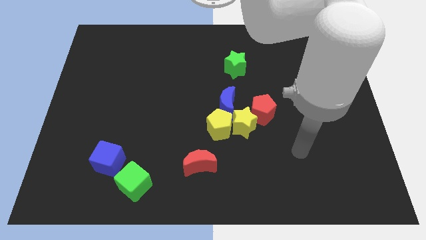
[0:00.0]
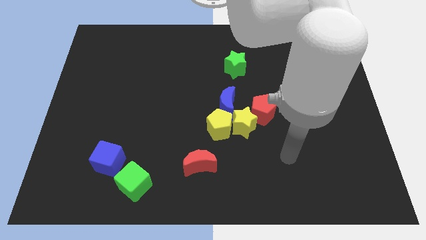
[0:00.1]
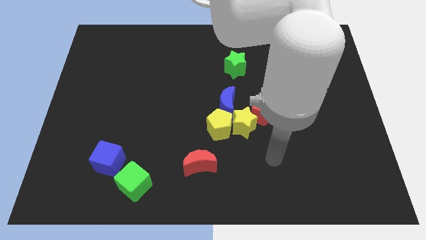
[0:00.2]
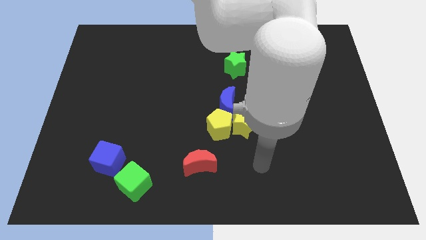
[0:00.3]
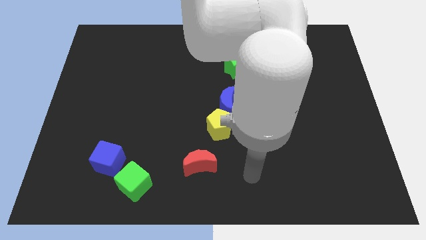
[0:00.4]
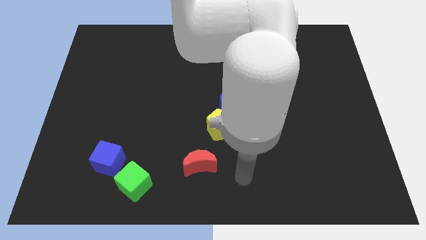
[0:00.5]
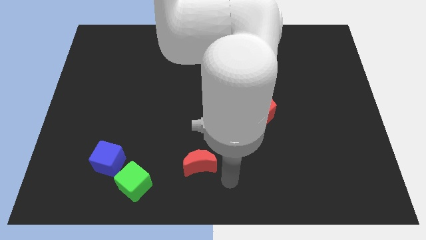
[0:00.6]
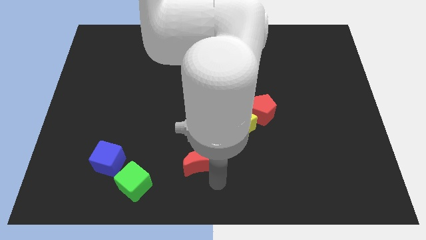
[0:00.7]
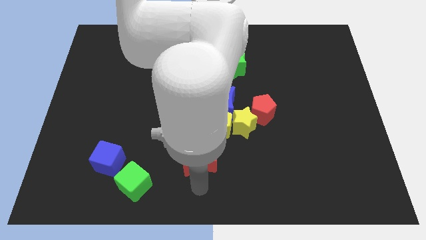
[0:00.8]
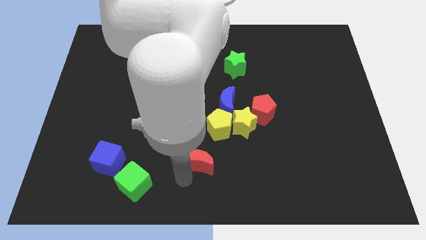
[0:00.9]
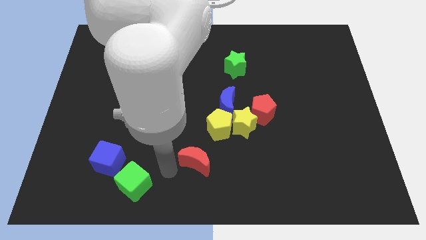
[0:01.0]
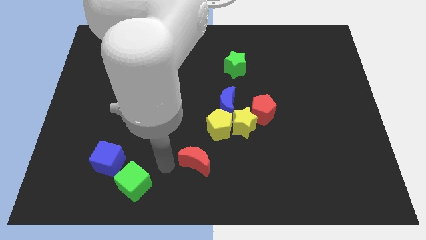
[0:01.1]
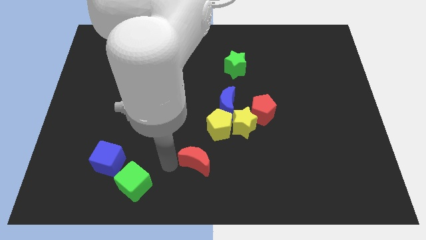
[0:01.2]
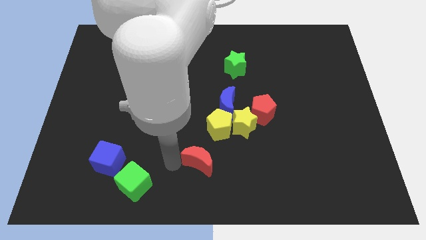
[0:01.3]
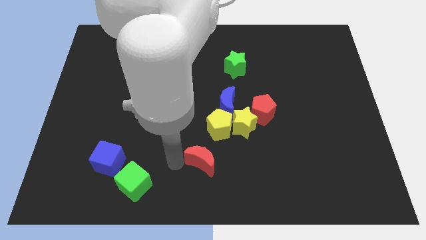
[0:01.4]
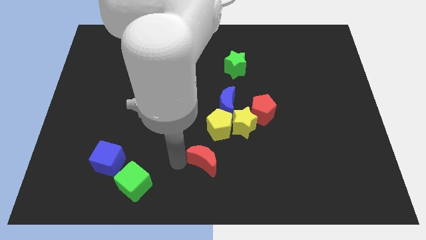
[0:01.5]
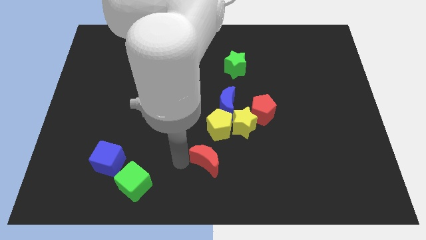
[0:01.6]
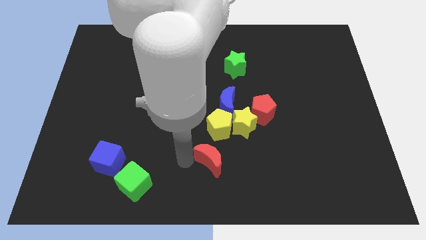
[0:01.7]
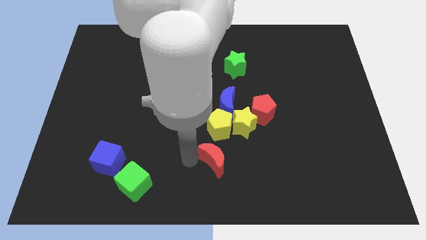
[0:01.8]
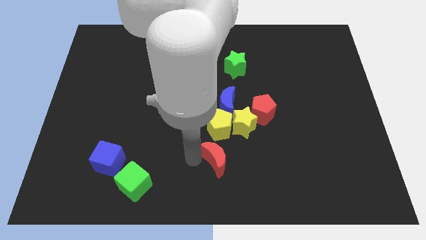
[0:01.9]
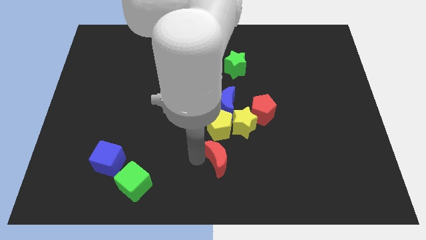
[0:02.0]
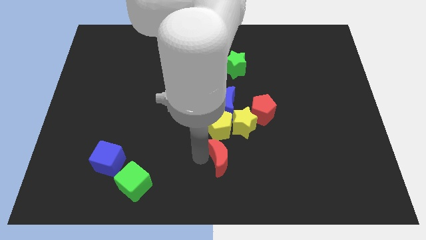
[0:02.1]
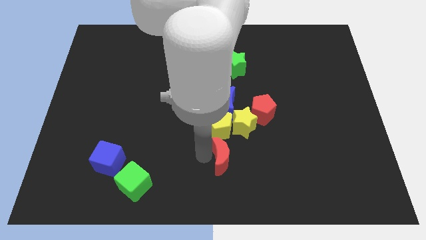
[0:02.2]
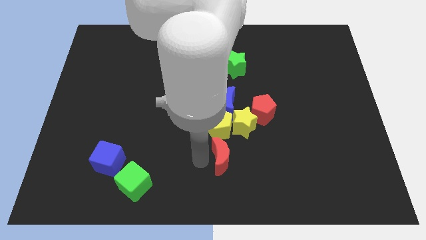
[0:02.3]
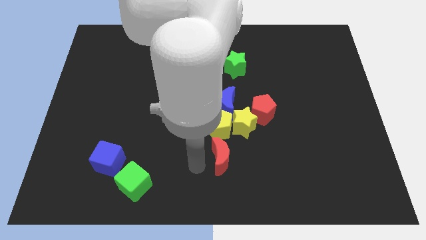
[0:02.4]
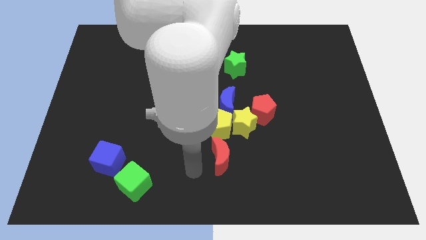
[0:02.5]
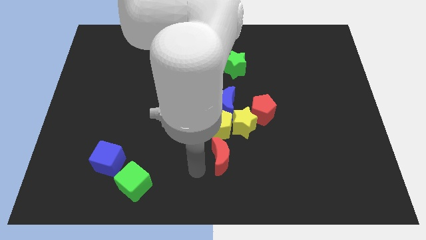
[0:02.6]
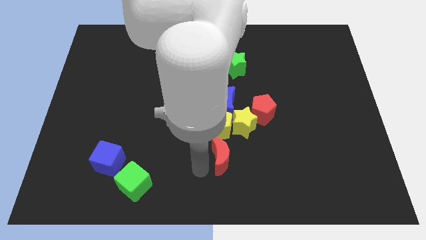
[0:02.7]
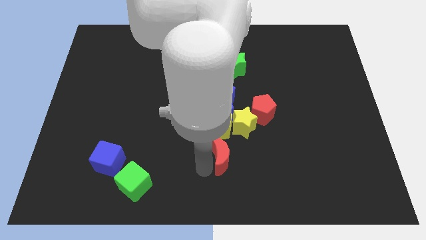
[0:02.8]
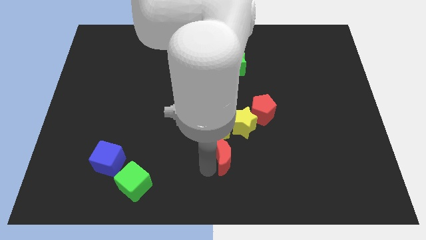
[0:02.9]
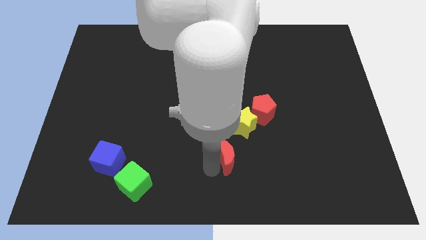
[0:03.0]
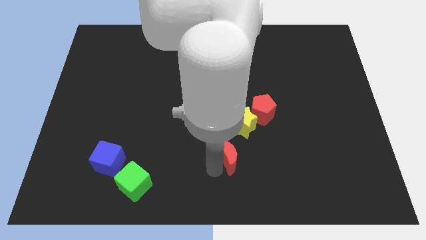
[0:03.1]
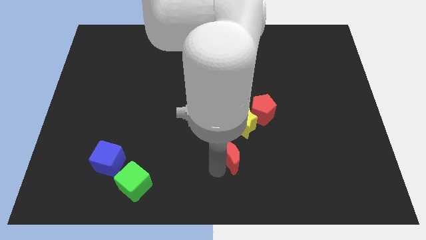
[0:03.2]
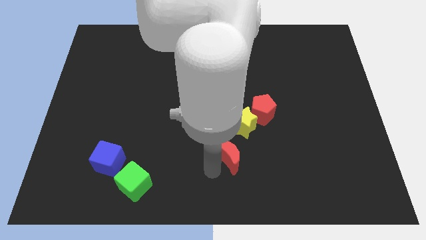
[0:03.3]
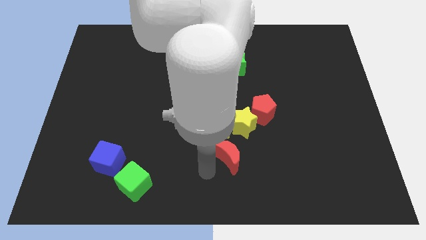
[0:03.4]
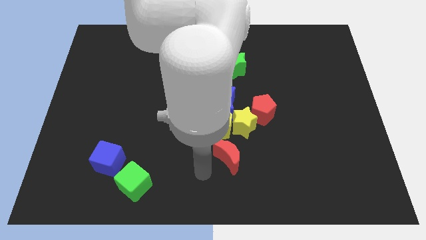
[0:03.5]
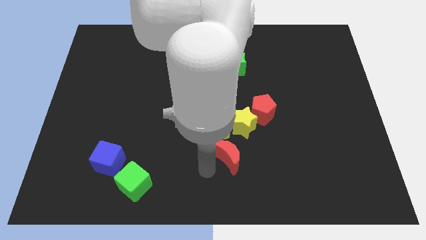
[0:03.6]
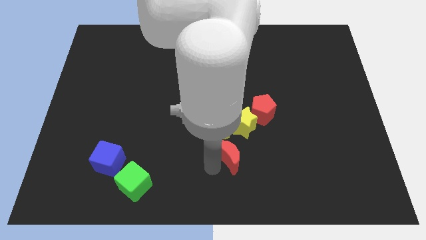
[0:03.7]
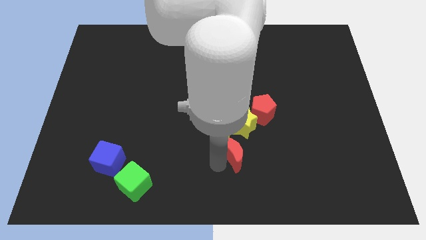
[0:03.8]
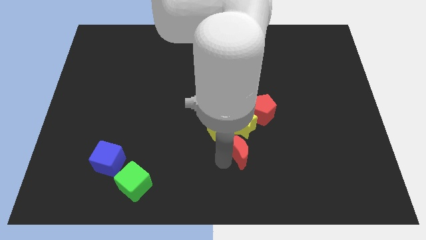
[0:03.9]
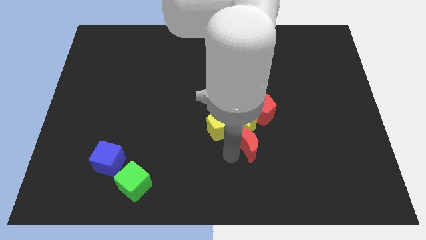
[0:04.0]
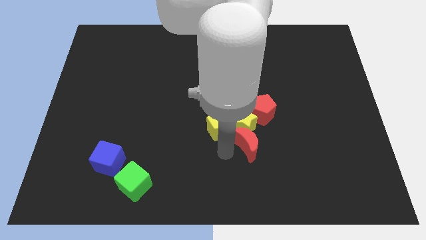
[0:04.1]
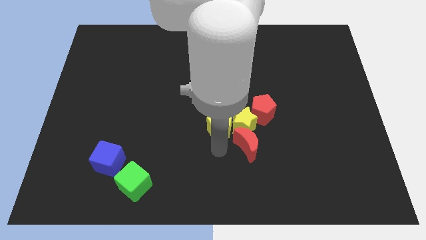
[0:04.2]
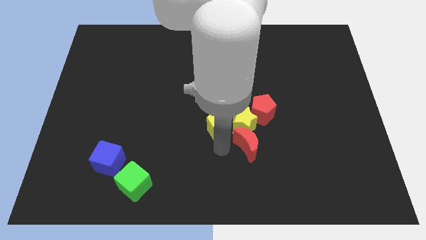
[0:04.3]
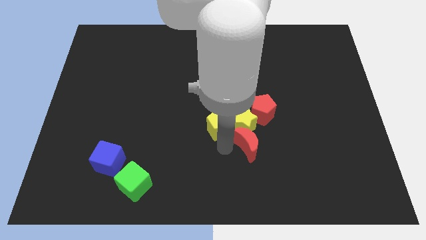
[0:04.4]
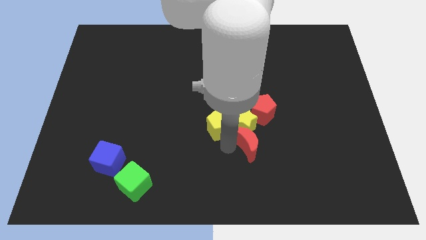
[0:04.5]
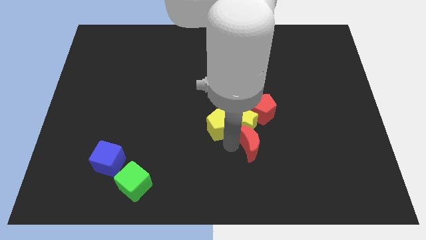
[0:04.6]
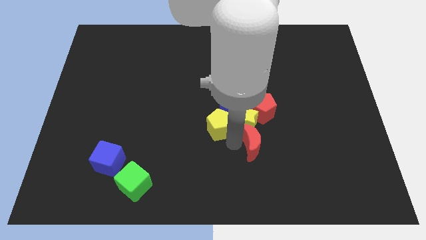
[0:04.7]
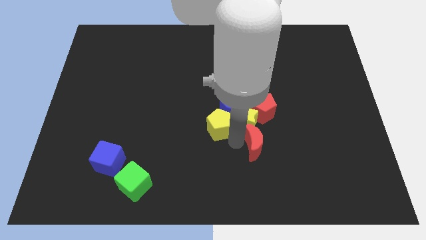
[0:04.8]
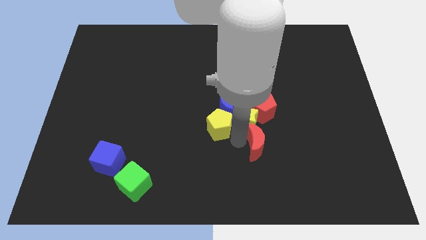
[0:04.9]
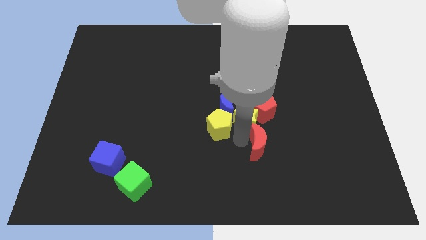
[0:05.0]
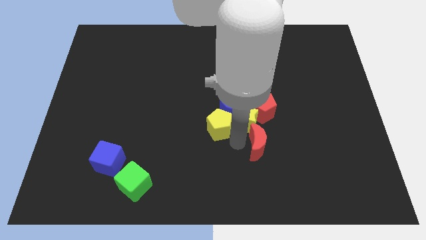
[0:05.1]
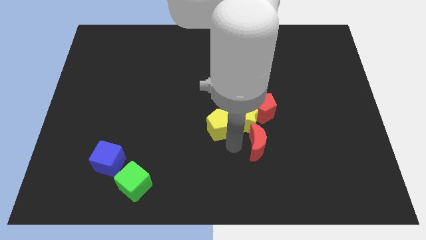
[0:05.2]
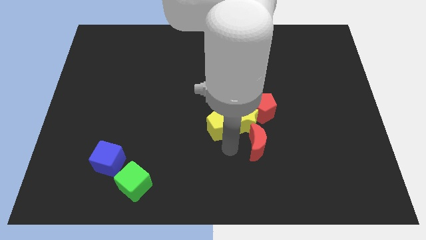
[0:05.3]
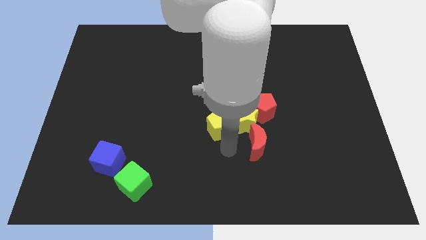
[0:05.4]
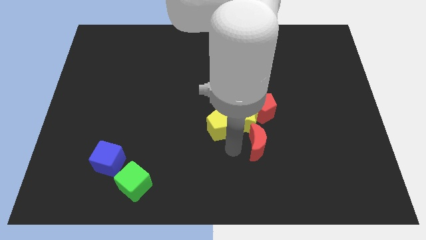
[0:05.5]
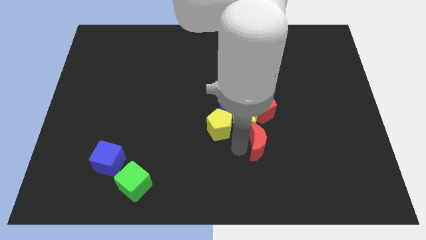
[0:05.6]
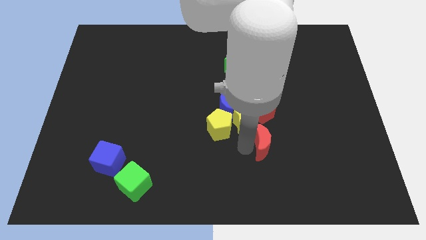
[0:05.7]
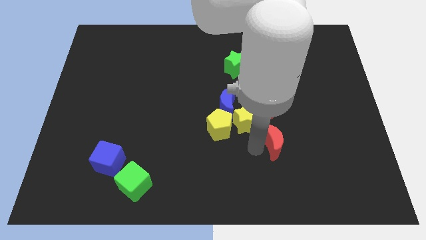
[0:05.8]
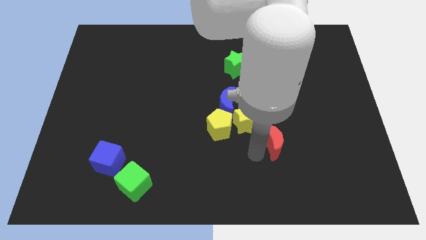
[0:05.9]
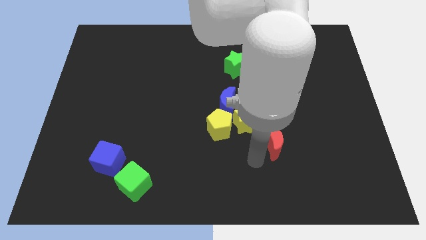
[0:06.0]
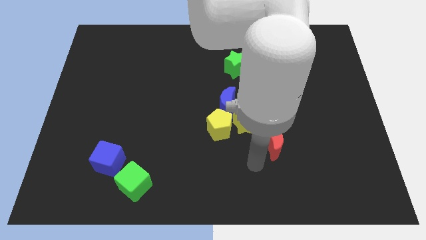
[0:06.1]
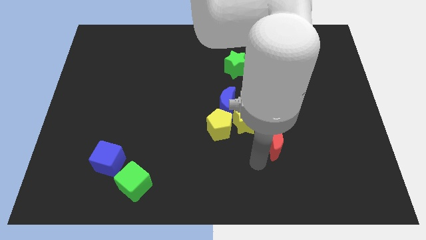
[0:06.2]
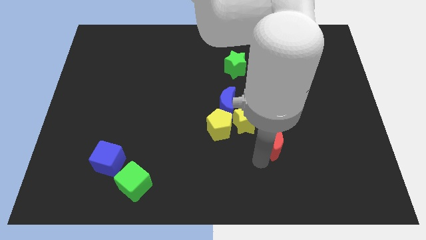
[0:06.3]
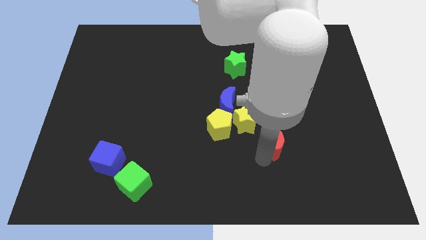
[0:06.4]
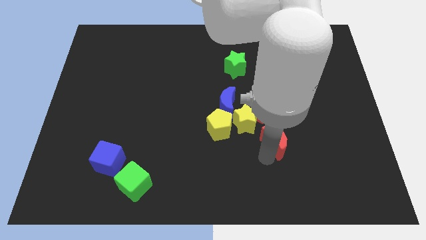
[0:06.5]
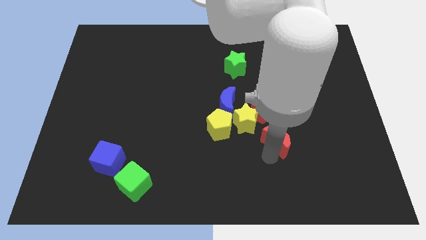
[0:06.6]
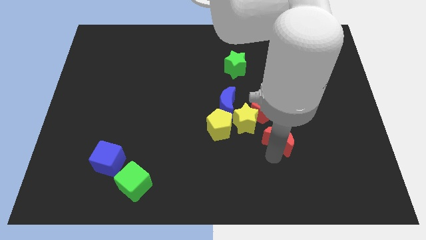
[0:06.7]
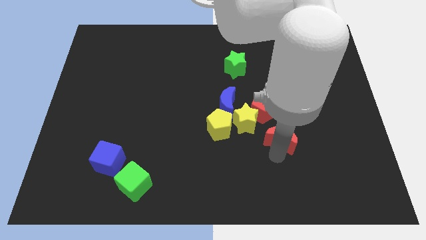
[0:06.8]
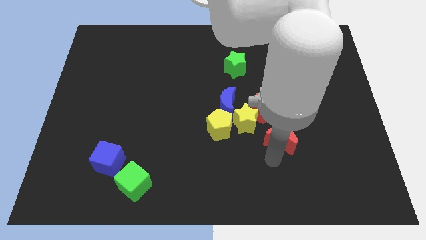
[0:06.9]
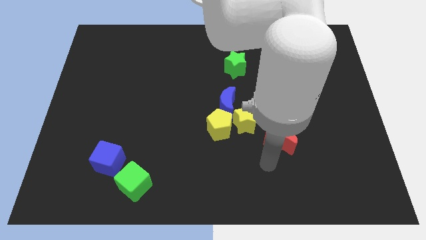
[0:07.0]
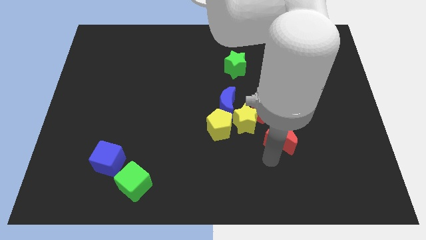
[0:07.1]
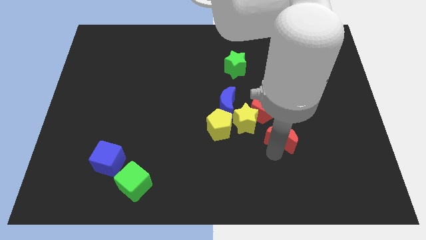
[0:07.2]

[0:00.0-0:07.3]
push the red moon to the right side of the yellow star
